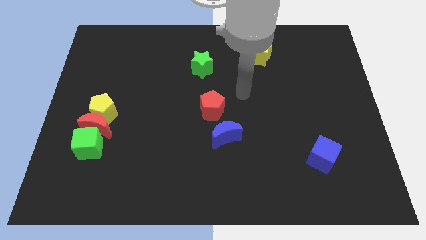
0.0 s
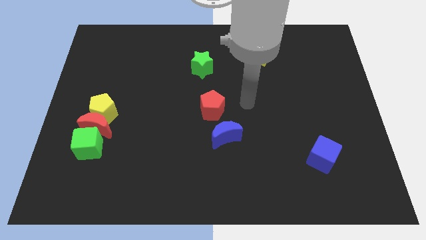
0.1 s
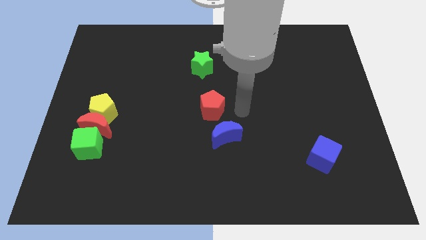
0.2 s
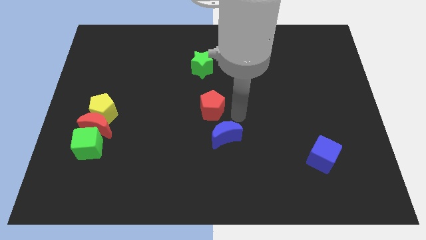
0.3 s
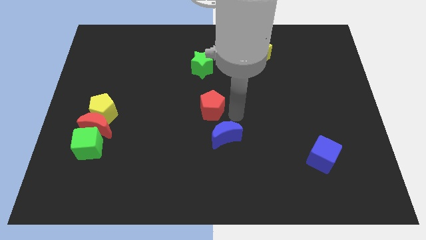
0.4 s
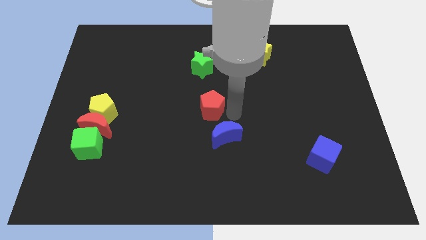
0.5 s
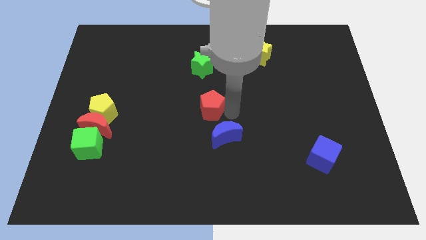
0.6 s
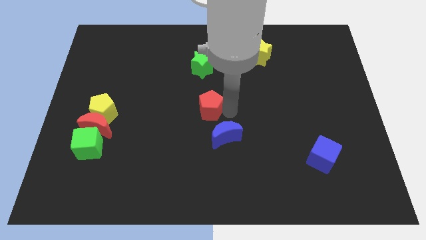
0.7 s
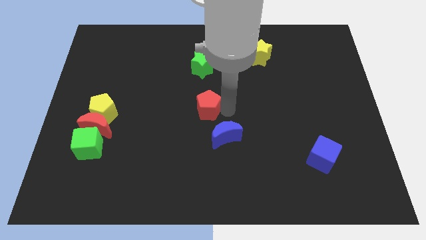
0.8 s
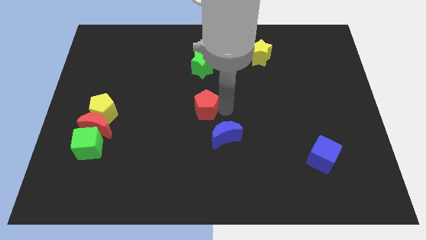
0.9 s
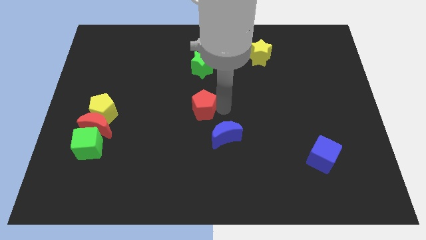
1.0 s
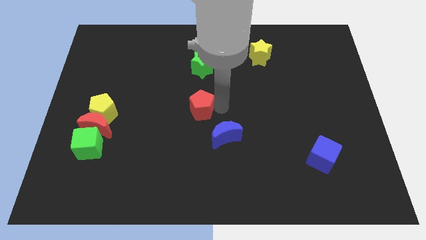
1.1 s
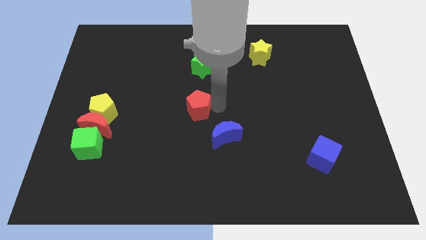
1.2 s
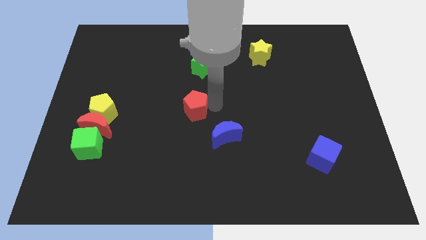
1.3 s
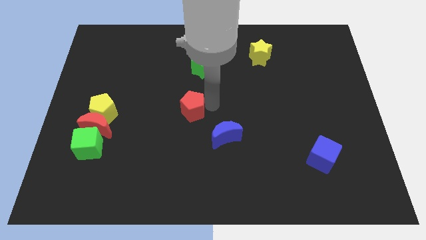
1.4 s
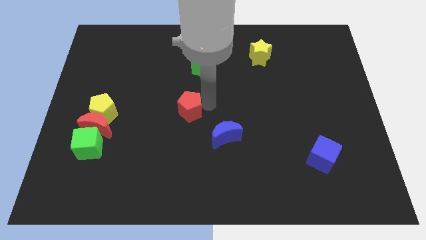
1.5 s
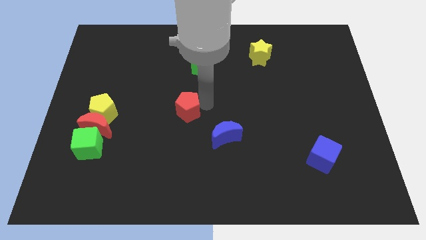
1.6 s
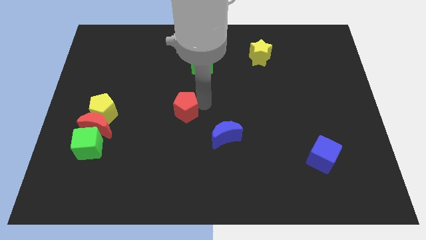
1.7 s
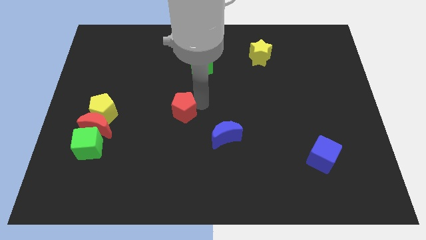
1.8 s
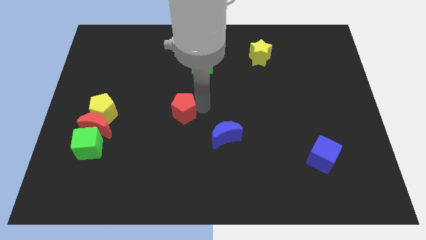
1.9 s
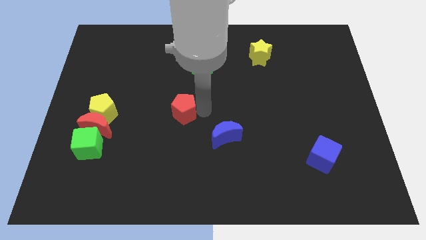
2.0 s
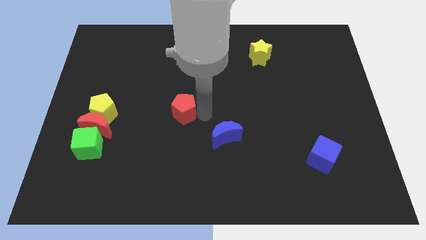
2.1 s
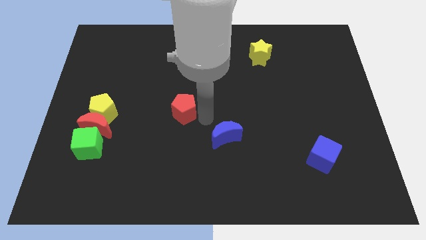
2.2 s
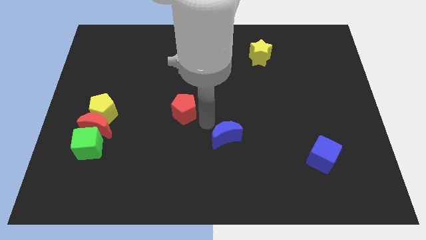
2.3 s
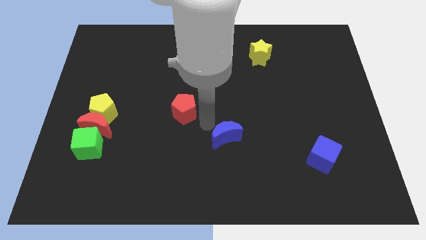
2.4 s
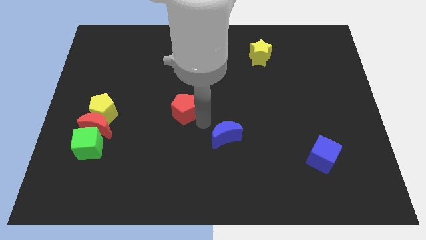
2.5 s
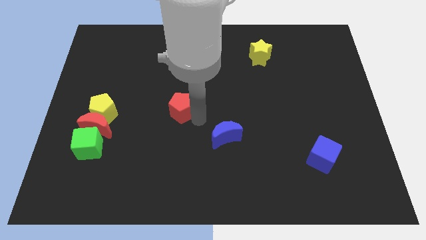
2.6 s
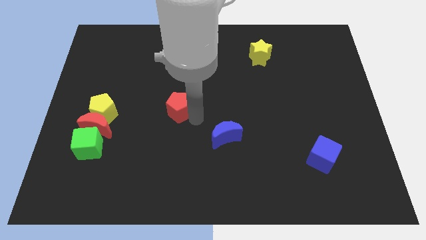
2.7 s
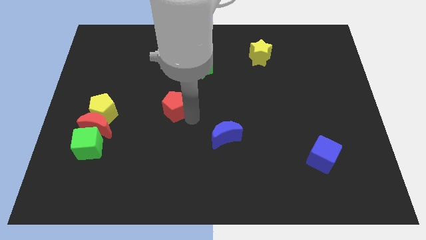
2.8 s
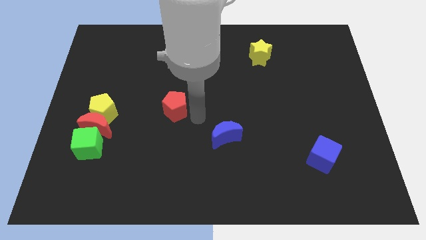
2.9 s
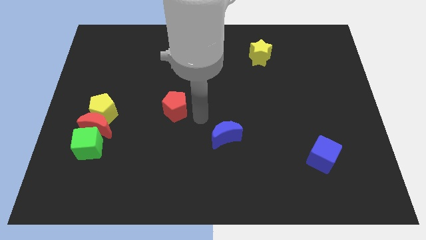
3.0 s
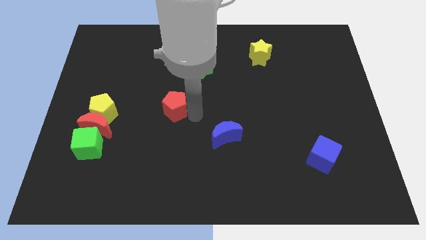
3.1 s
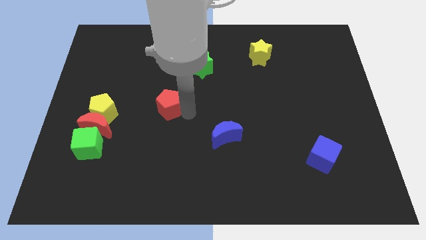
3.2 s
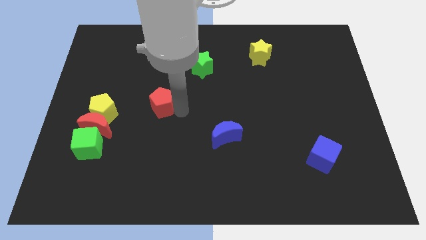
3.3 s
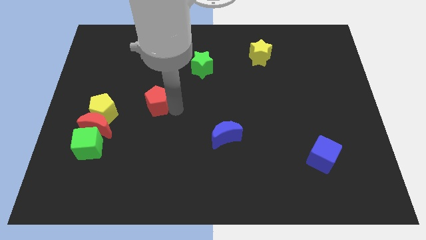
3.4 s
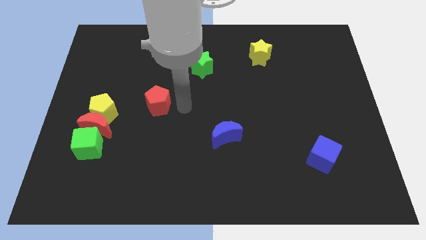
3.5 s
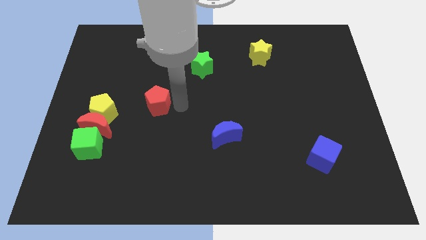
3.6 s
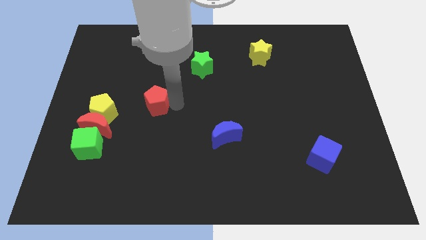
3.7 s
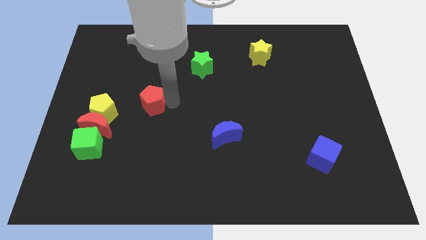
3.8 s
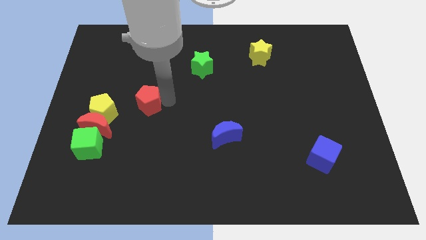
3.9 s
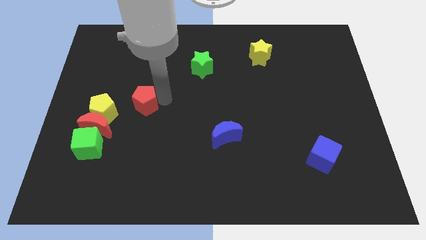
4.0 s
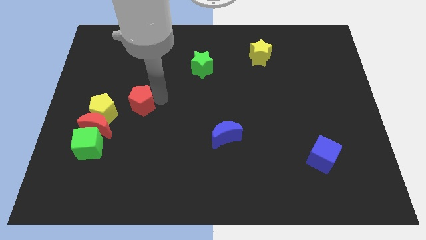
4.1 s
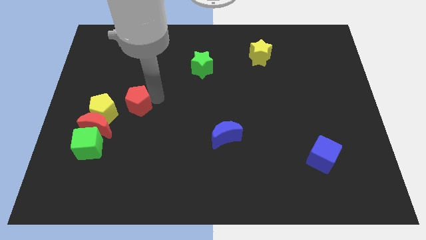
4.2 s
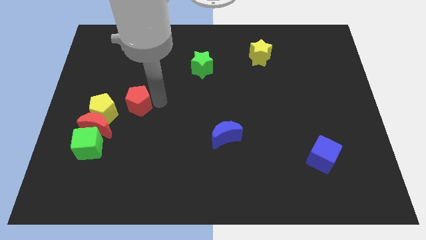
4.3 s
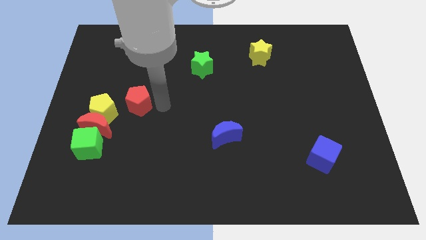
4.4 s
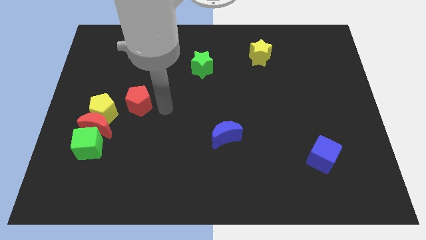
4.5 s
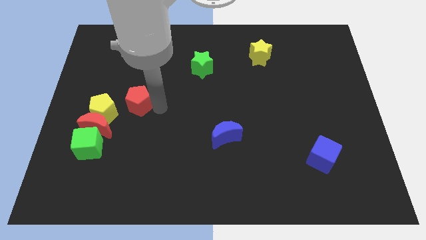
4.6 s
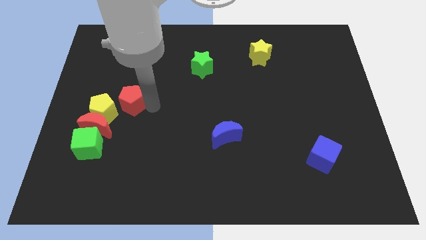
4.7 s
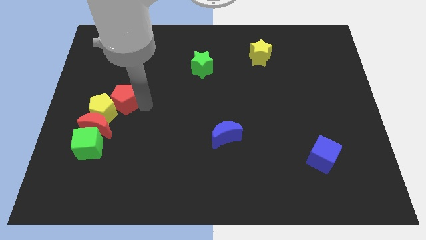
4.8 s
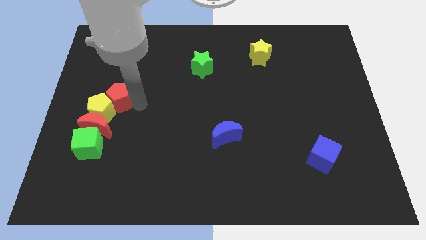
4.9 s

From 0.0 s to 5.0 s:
put the red pentagon above the green cube

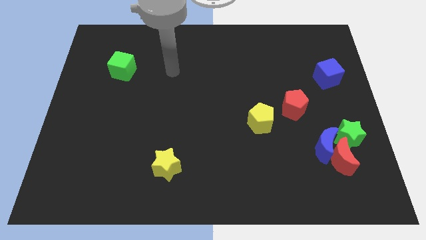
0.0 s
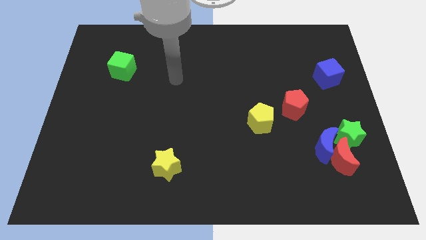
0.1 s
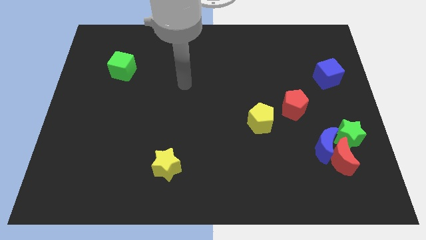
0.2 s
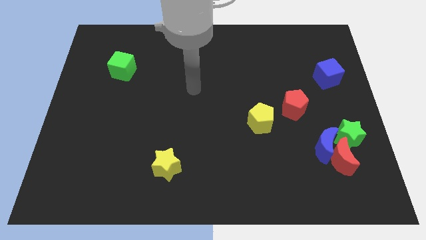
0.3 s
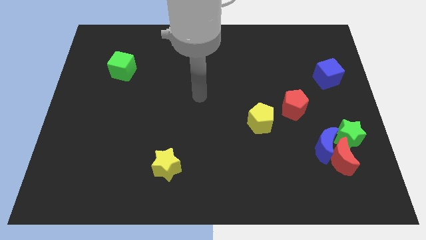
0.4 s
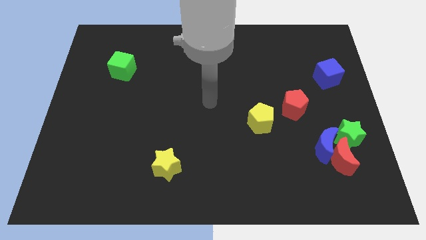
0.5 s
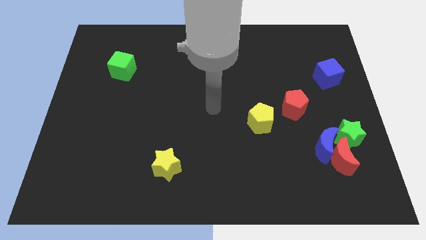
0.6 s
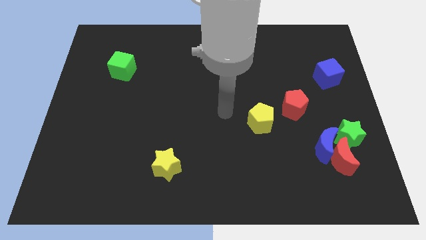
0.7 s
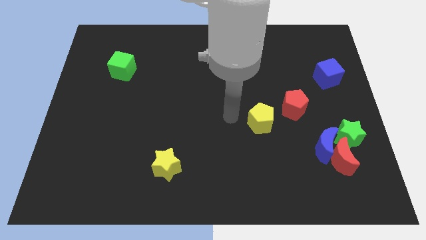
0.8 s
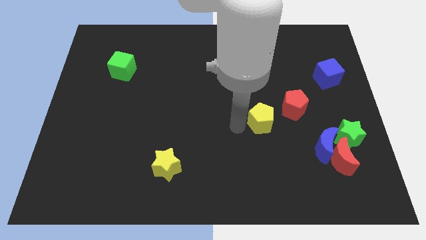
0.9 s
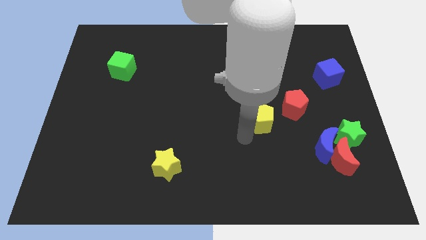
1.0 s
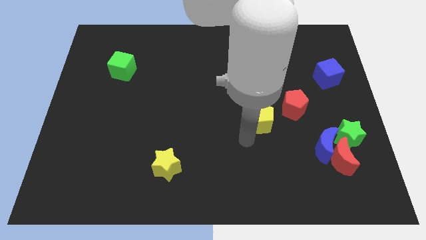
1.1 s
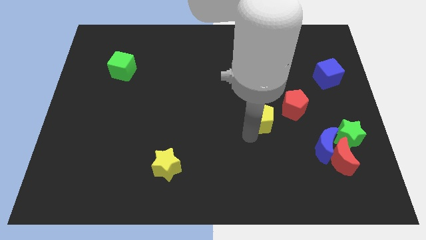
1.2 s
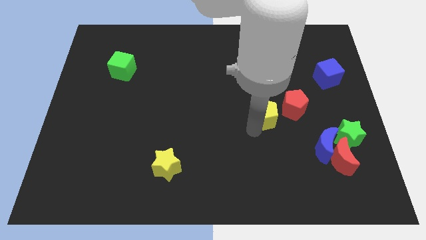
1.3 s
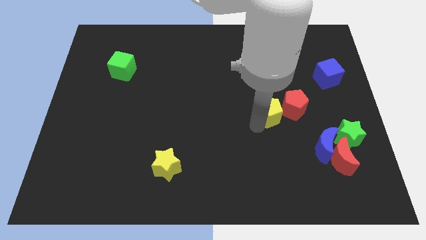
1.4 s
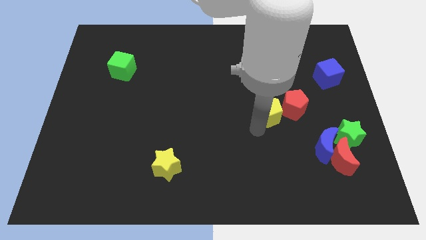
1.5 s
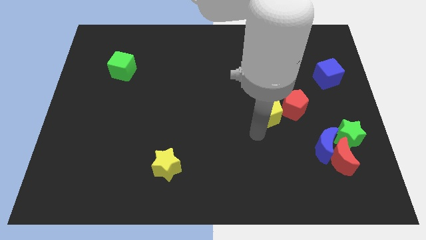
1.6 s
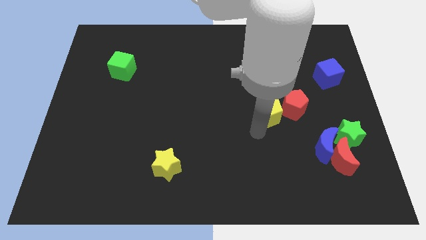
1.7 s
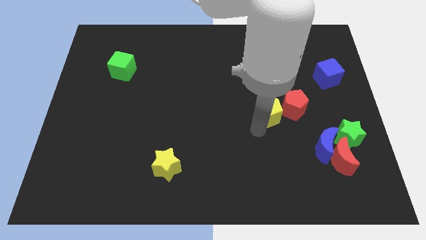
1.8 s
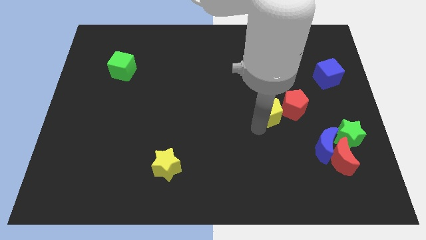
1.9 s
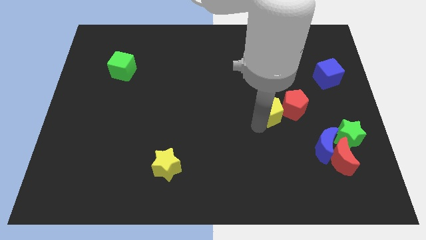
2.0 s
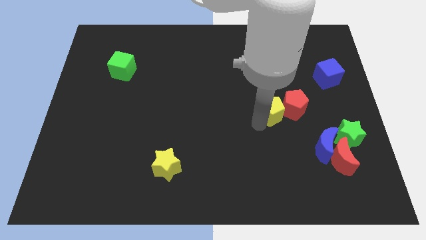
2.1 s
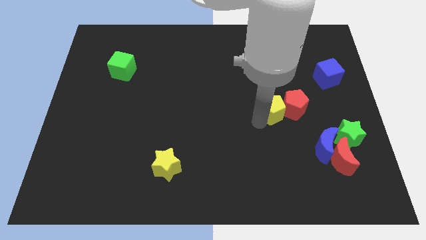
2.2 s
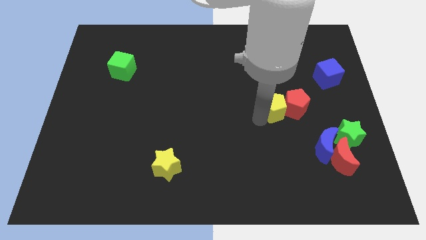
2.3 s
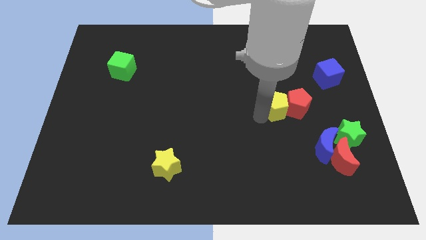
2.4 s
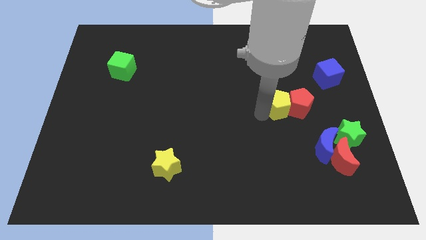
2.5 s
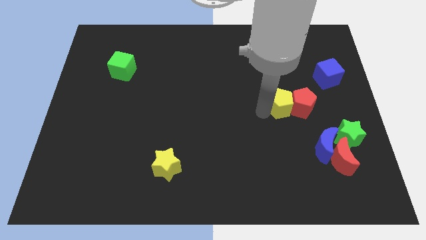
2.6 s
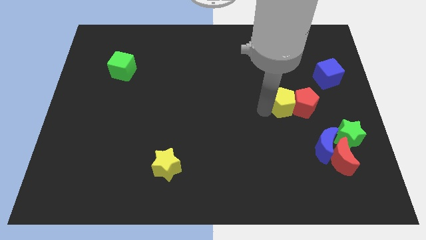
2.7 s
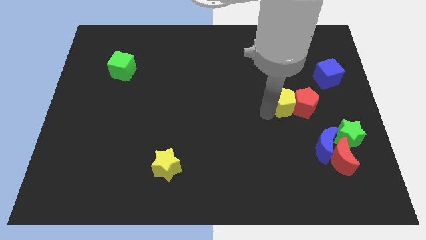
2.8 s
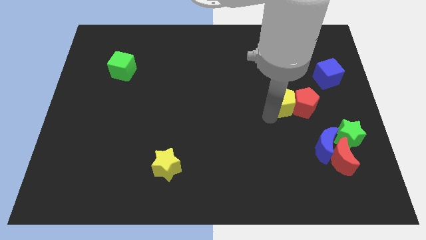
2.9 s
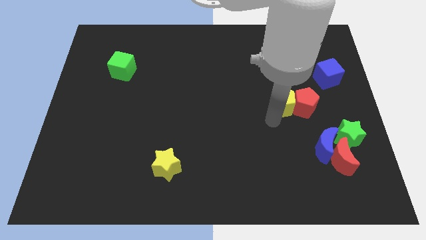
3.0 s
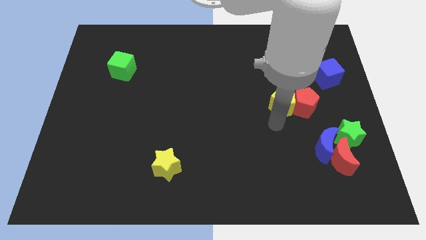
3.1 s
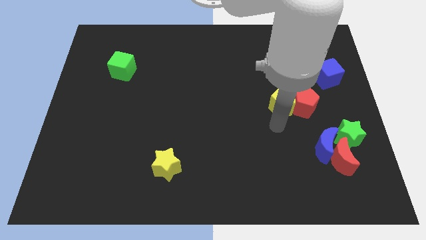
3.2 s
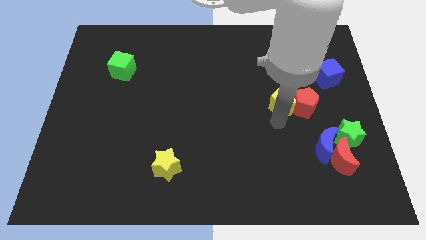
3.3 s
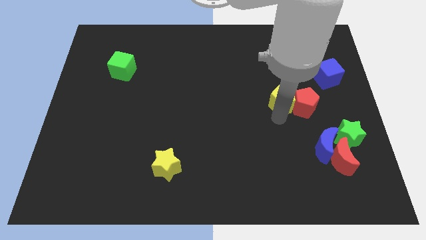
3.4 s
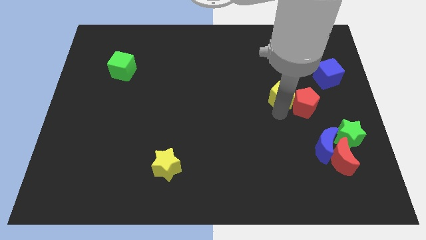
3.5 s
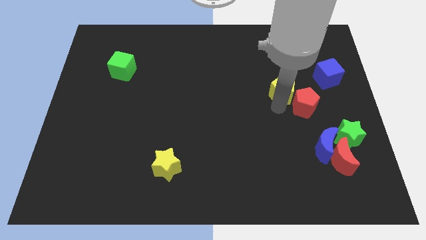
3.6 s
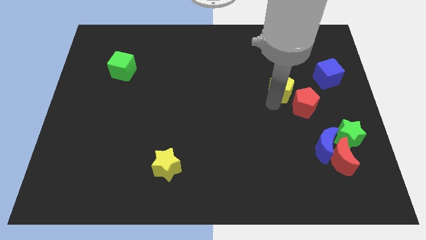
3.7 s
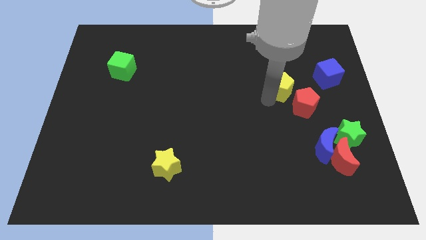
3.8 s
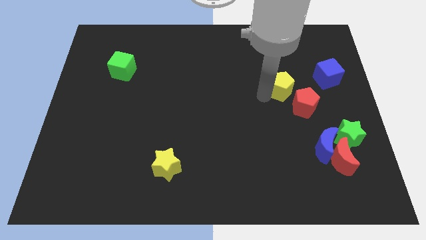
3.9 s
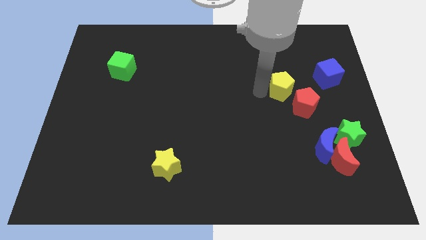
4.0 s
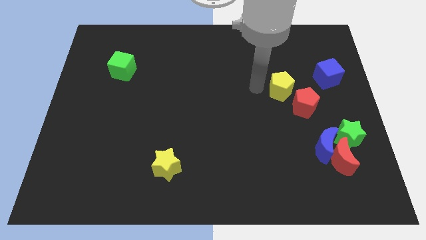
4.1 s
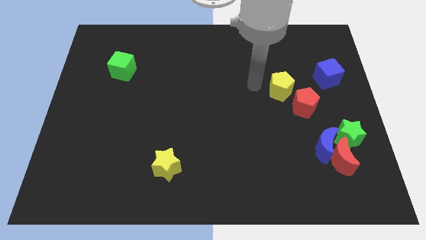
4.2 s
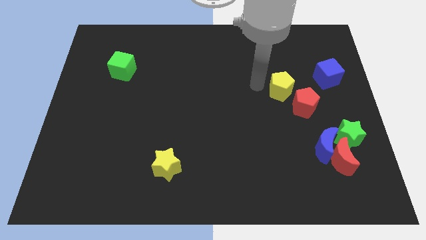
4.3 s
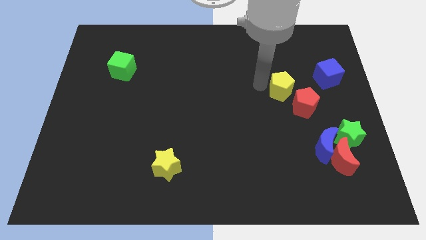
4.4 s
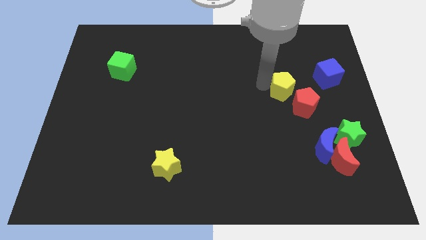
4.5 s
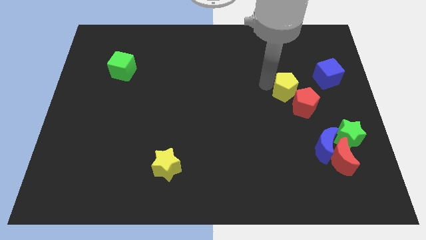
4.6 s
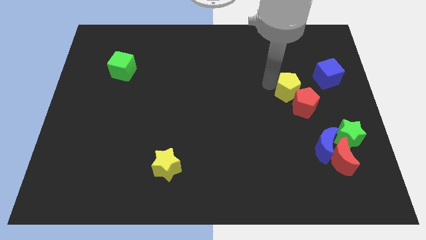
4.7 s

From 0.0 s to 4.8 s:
slide the yellow pentagon to the bottom left side of the blue cube
